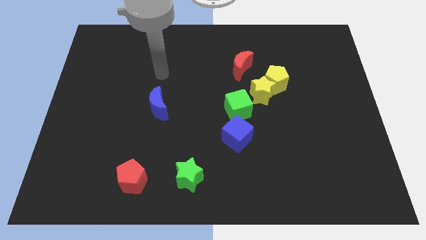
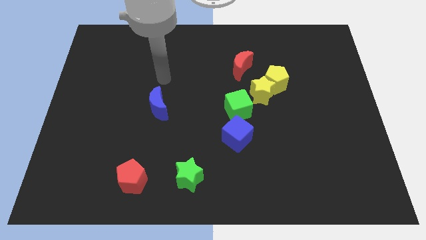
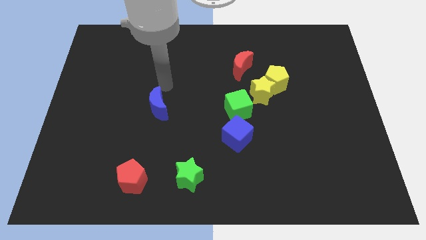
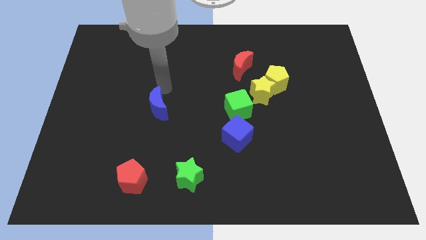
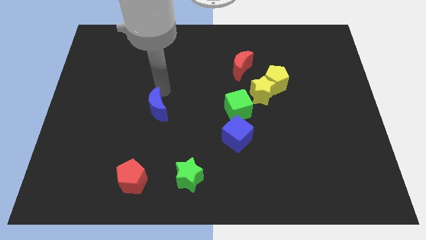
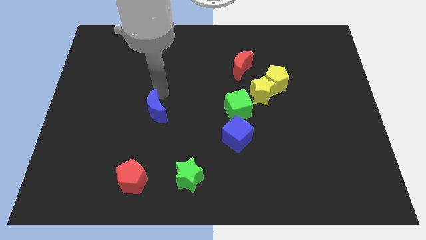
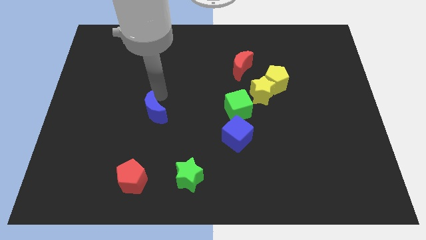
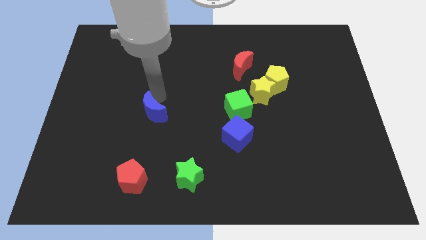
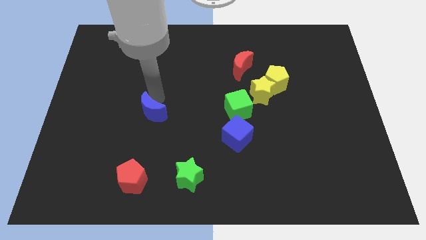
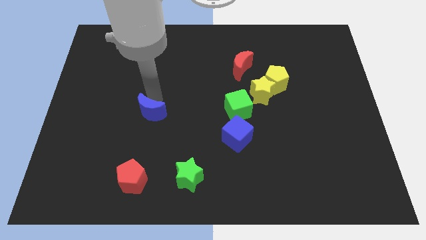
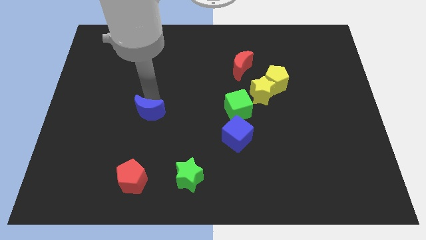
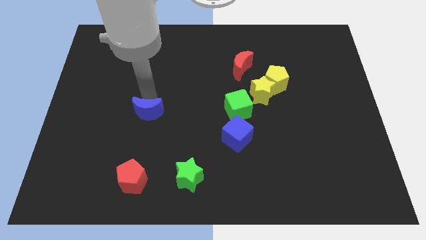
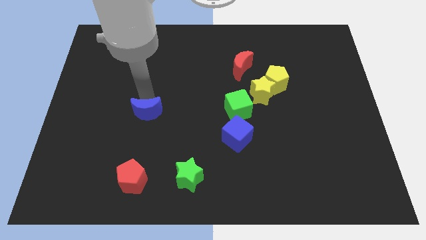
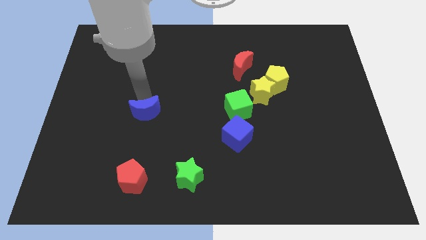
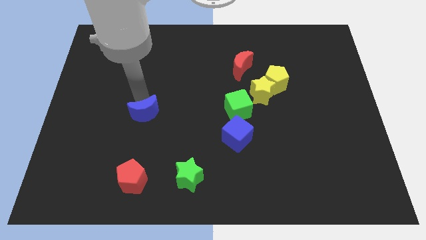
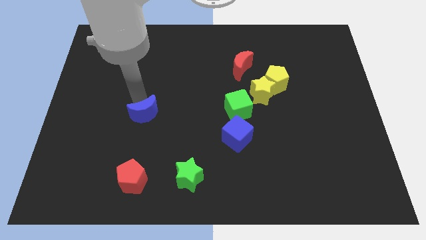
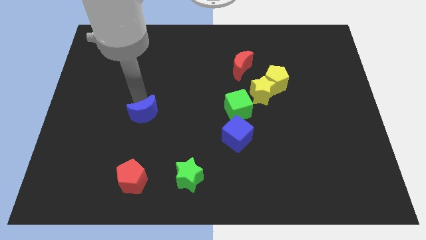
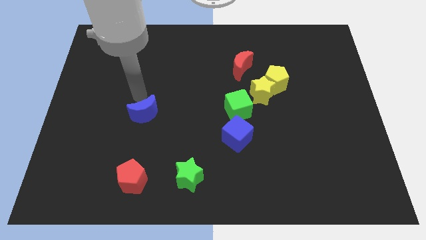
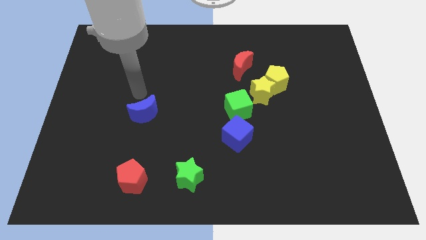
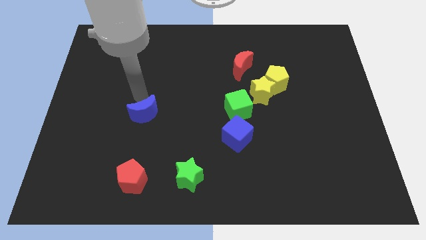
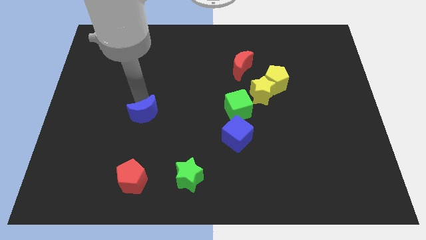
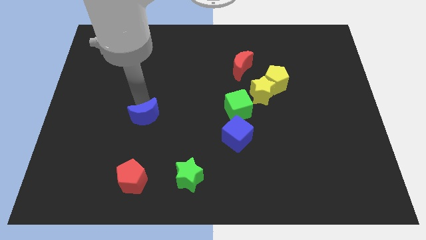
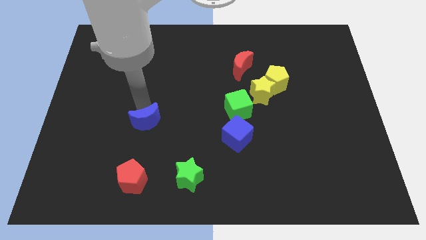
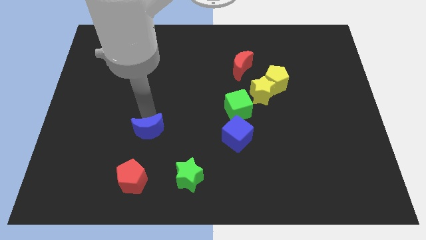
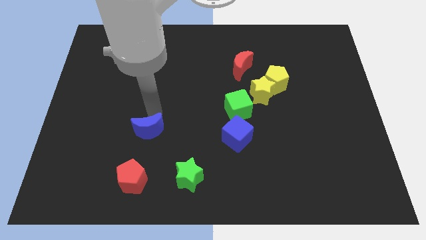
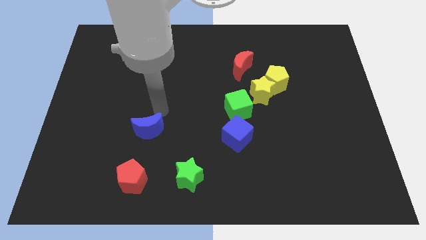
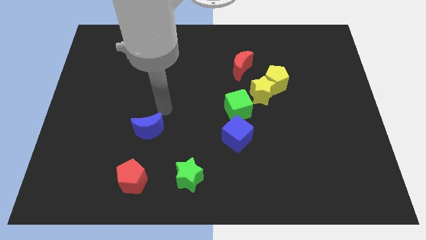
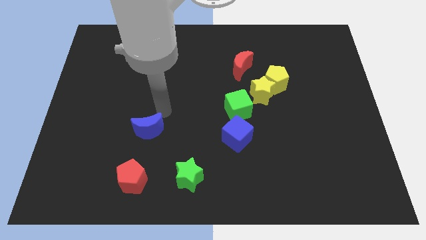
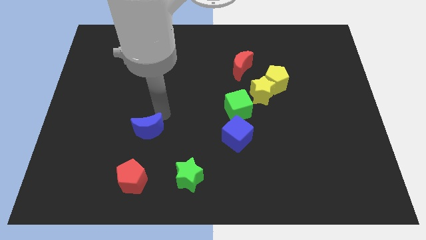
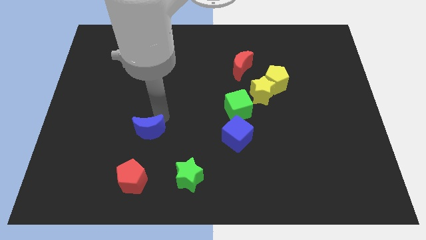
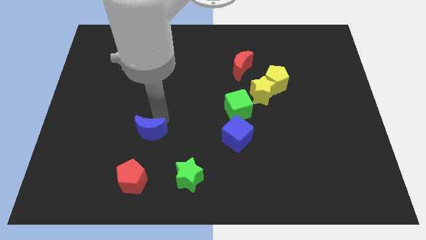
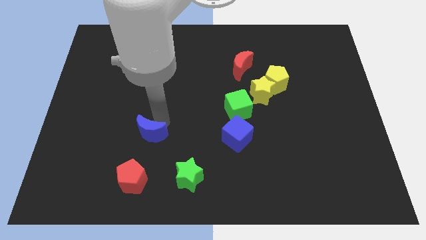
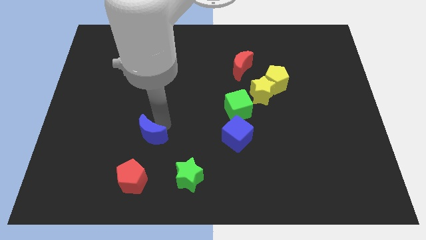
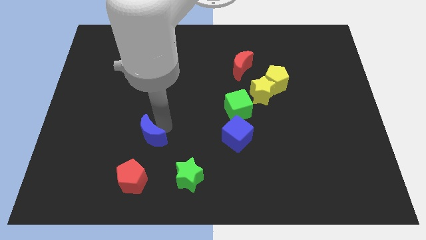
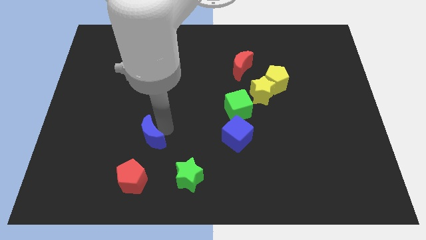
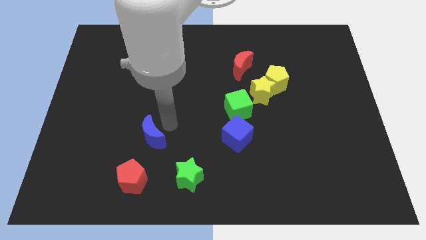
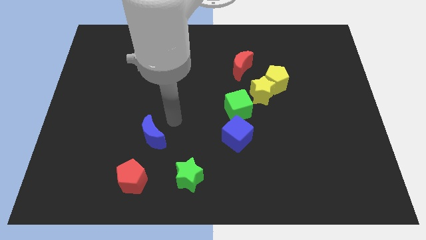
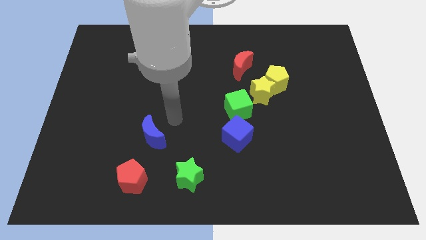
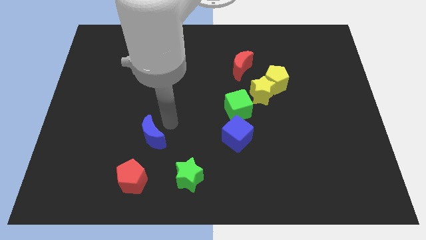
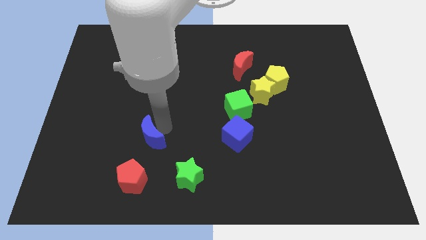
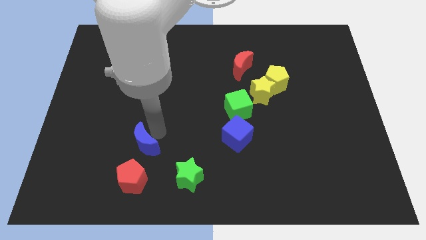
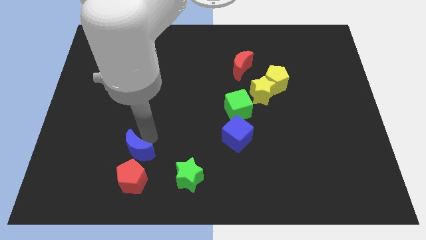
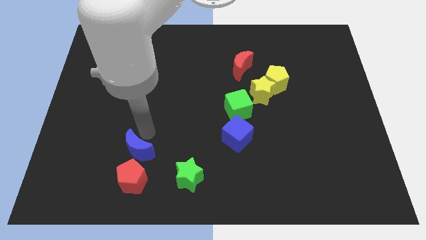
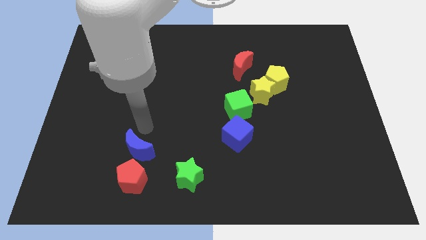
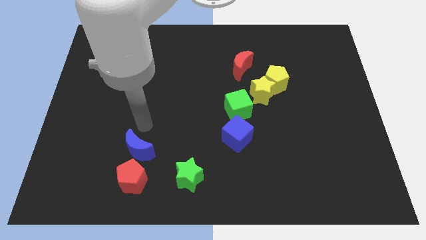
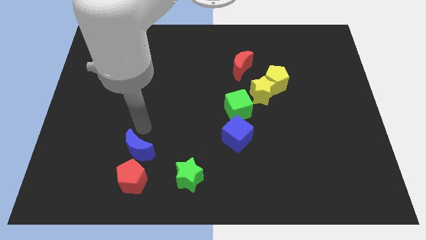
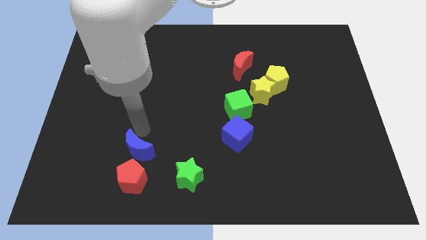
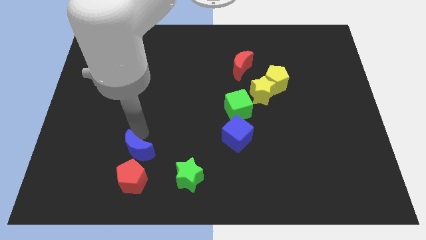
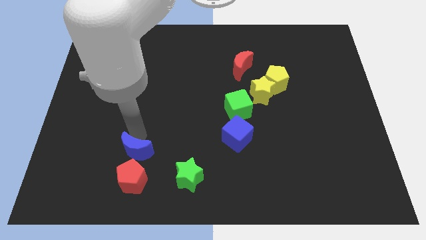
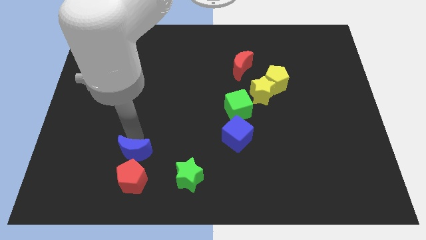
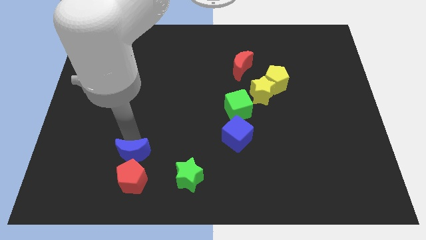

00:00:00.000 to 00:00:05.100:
push the blue moon towards the red pentagon

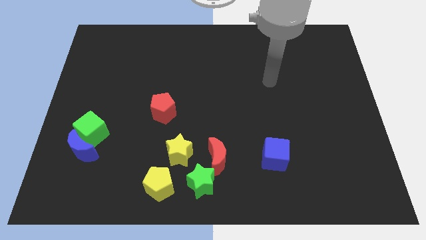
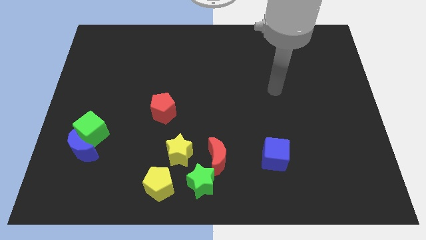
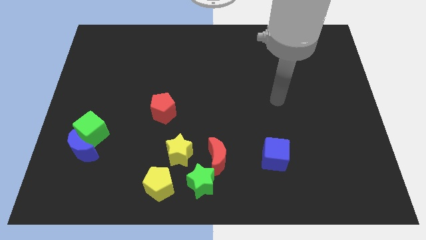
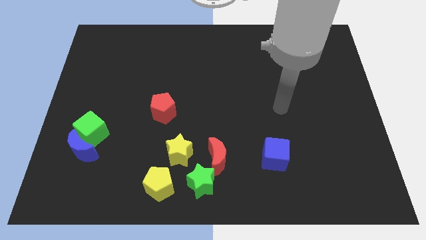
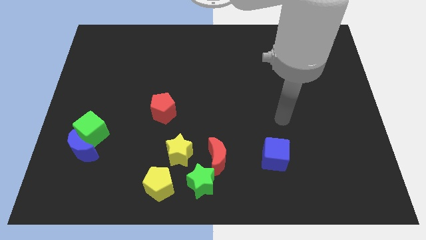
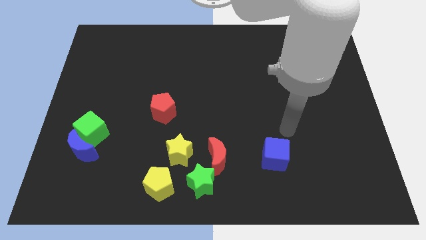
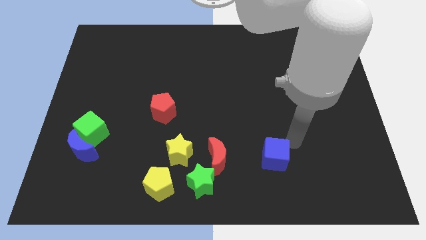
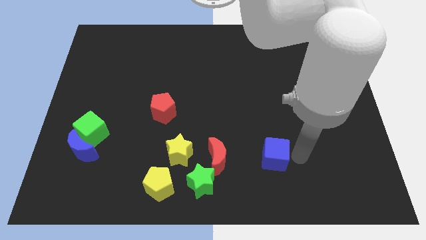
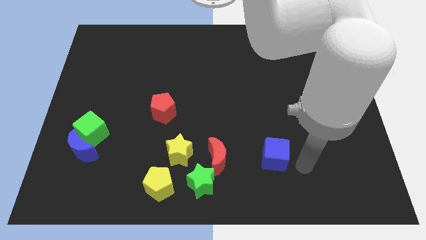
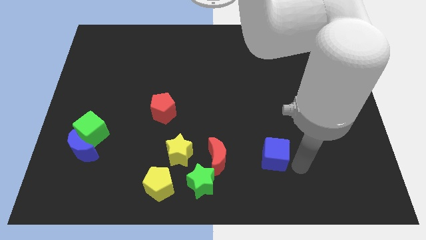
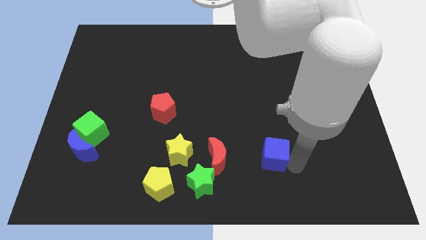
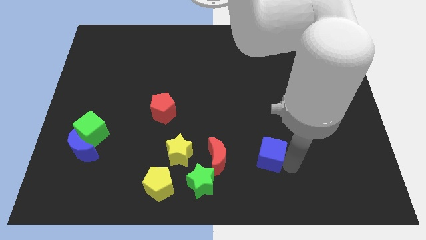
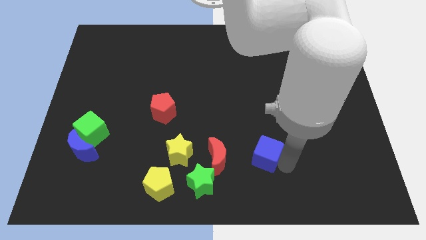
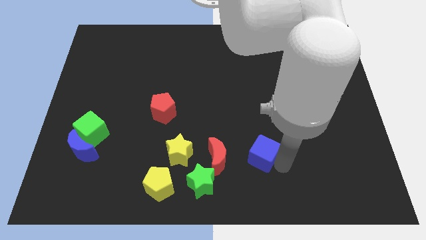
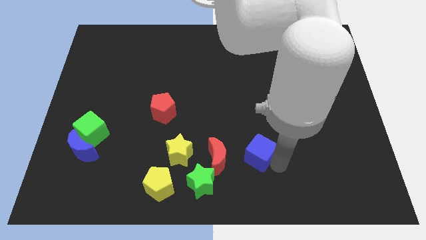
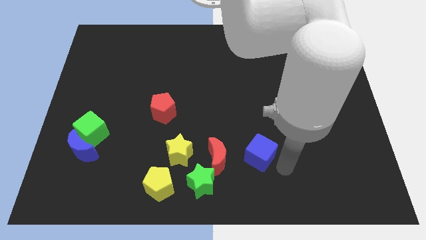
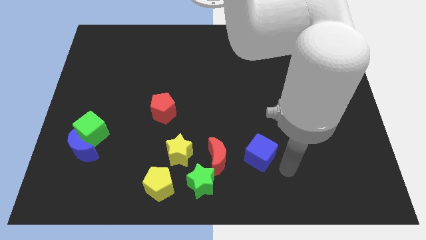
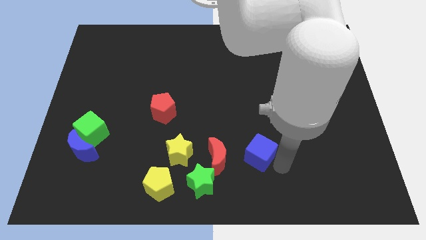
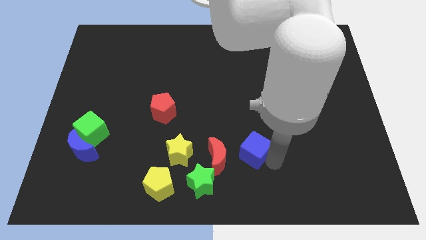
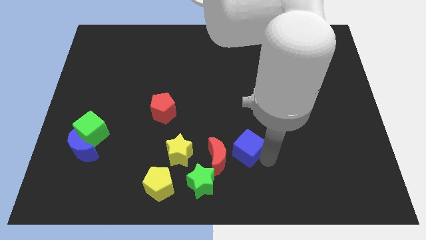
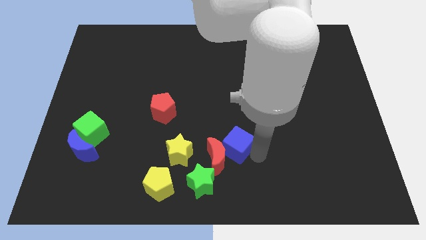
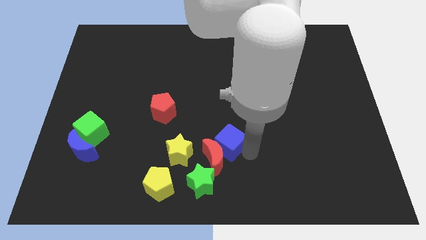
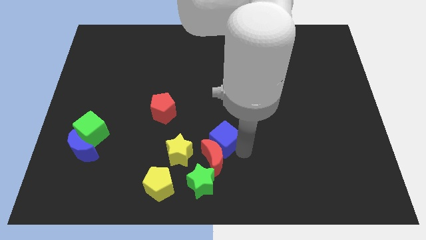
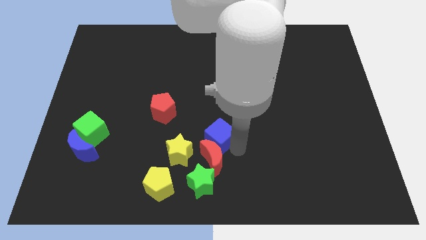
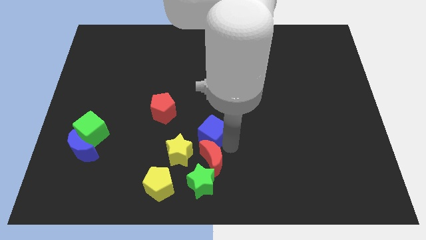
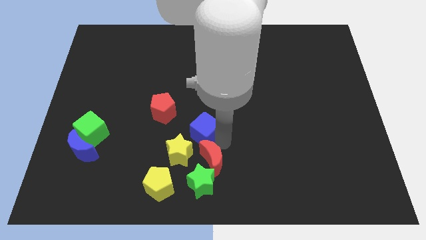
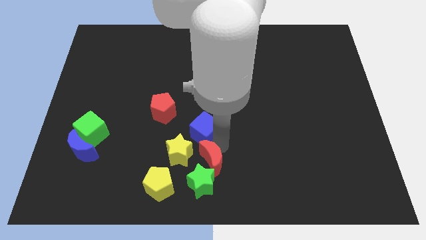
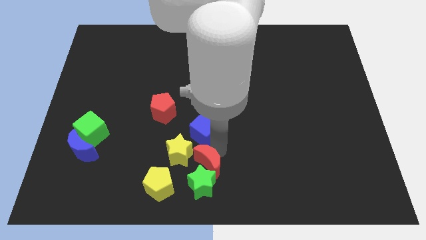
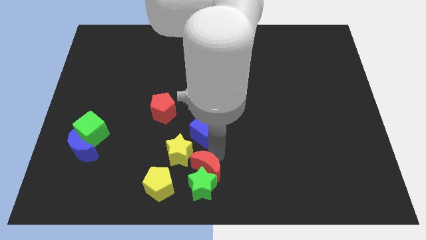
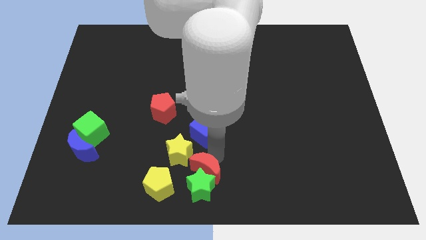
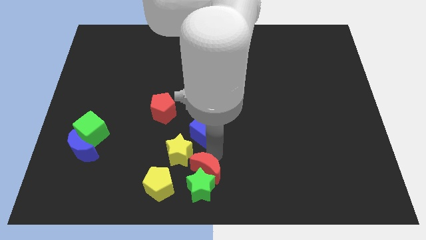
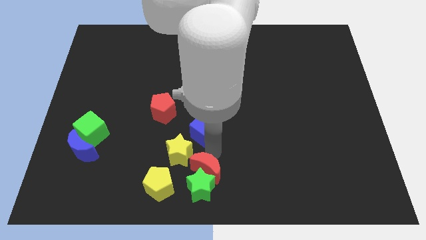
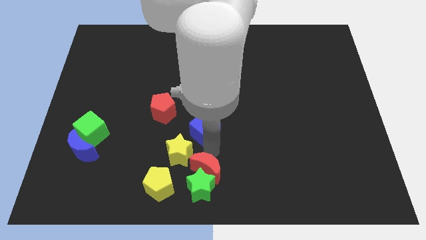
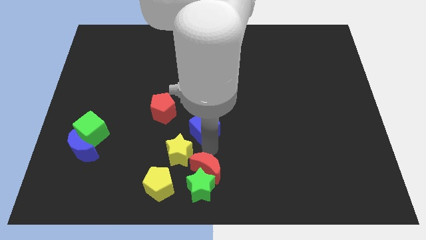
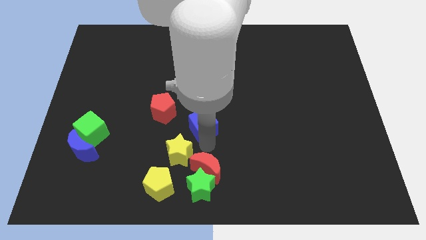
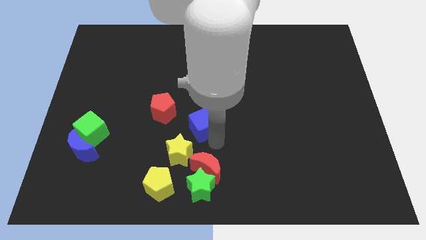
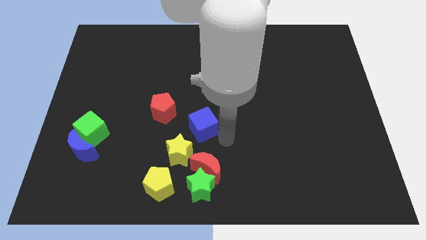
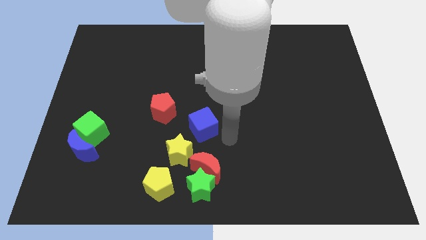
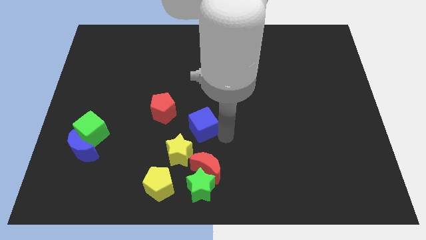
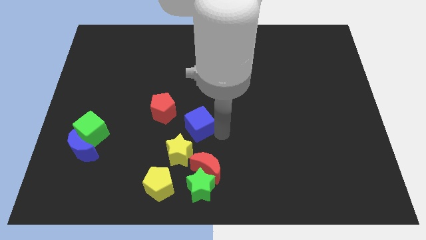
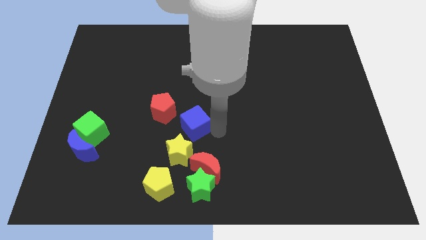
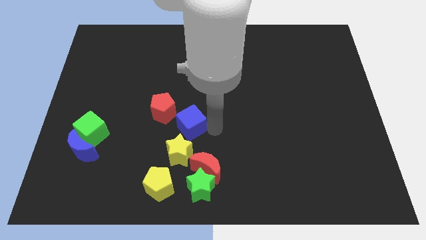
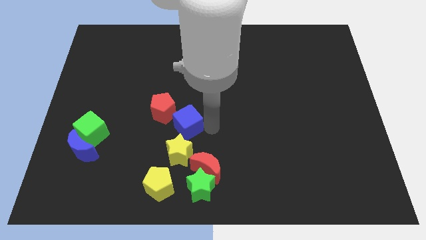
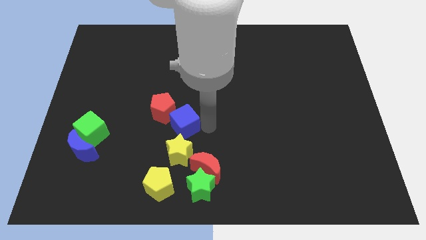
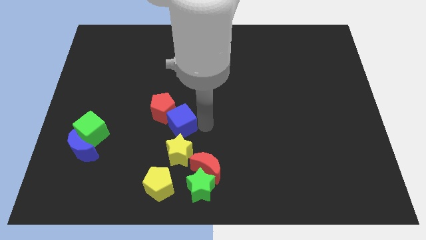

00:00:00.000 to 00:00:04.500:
put the blue cube to the red pentagon
